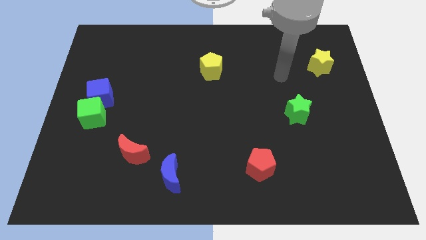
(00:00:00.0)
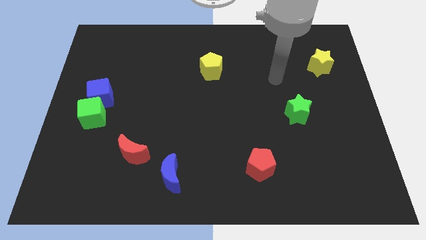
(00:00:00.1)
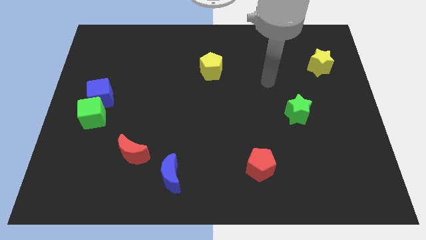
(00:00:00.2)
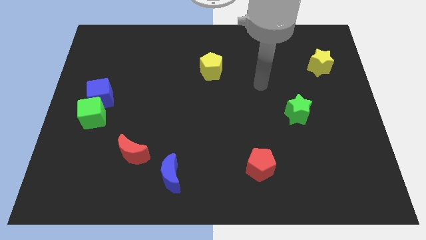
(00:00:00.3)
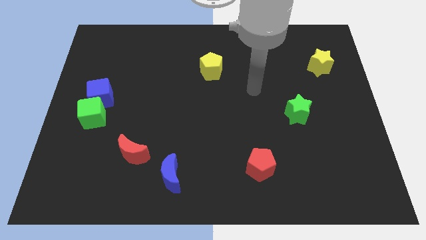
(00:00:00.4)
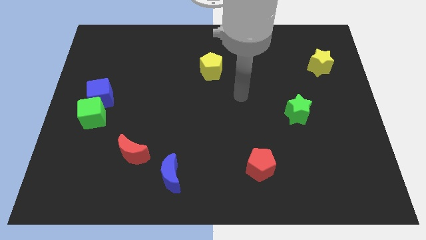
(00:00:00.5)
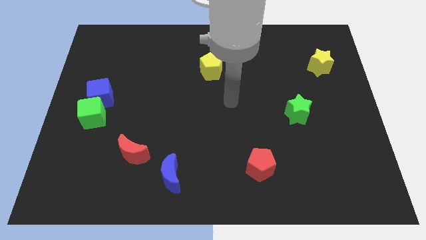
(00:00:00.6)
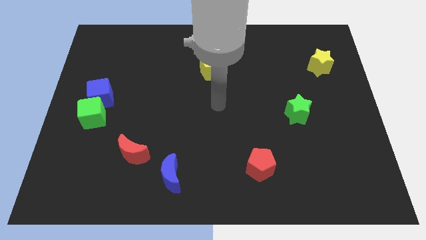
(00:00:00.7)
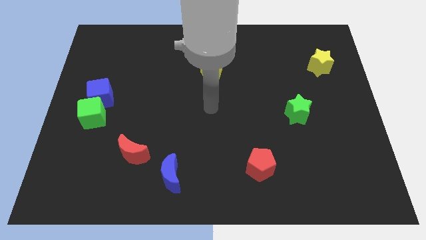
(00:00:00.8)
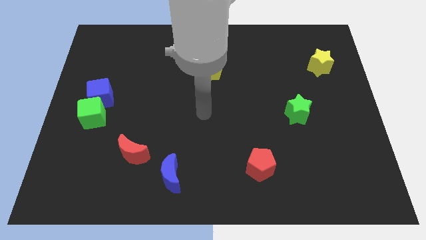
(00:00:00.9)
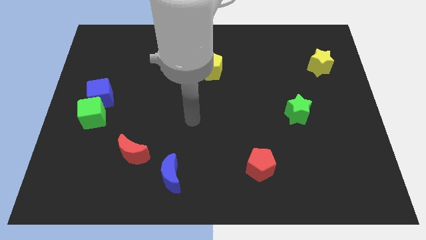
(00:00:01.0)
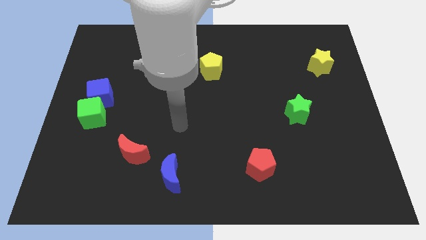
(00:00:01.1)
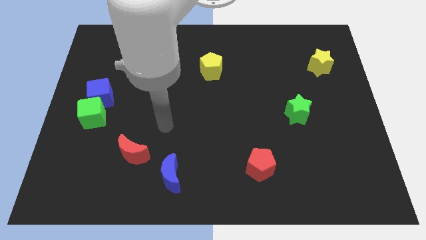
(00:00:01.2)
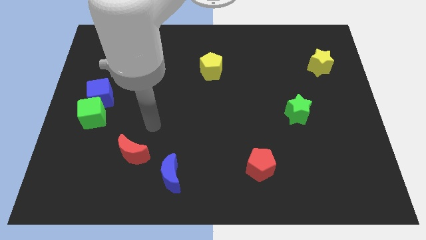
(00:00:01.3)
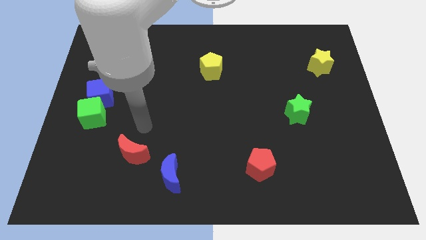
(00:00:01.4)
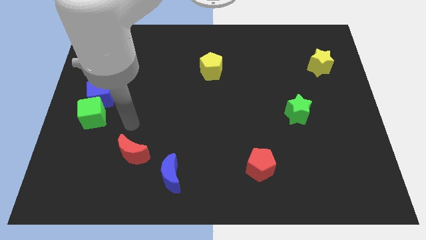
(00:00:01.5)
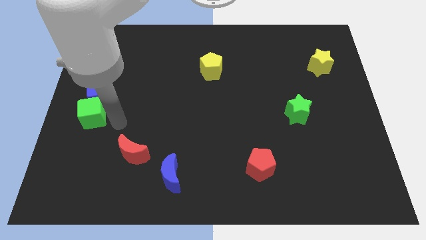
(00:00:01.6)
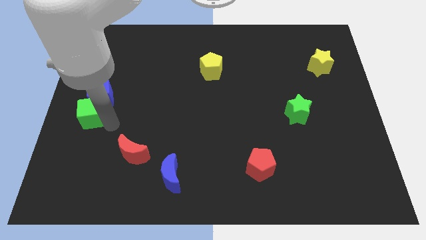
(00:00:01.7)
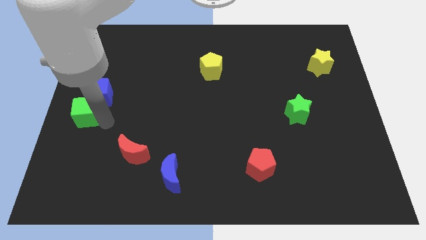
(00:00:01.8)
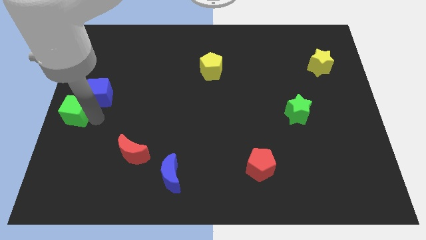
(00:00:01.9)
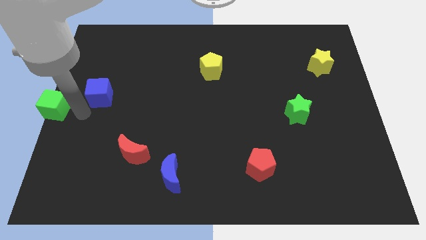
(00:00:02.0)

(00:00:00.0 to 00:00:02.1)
move the blue cube away from the green cube

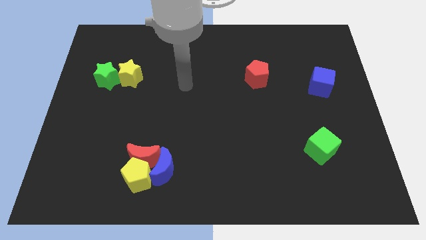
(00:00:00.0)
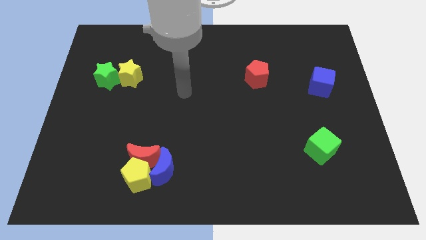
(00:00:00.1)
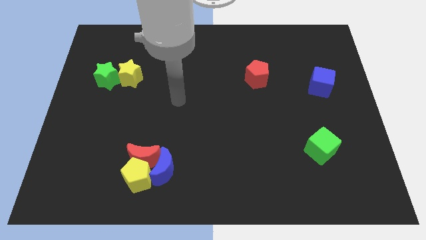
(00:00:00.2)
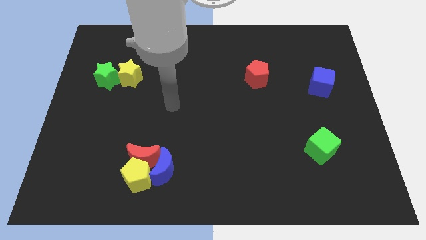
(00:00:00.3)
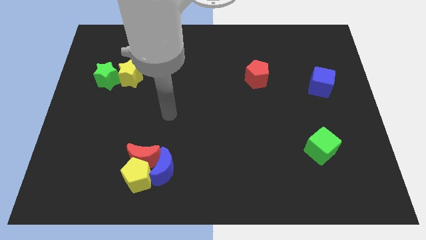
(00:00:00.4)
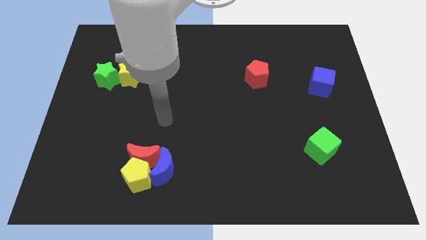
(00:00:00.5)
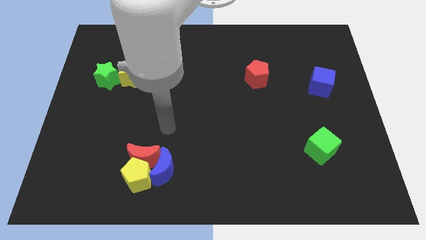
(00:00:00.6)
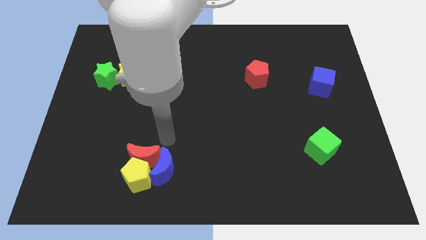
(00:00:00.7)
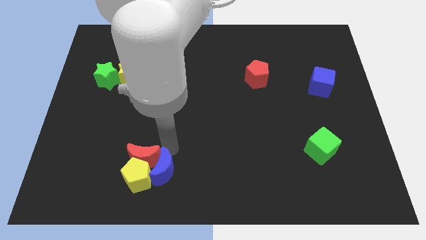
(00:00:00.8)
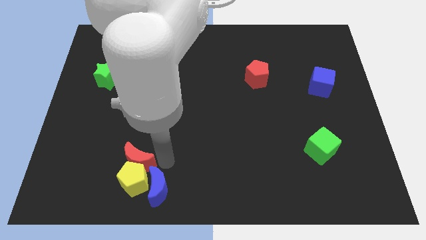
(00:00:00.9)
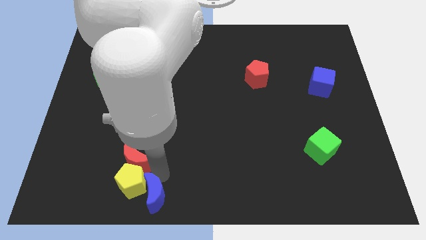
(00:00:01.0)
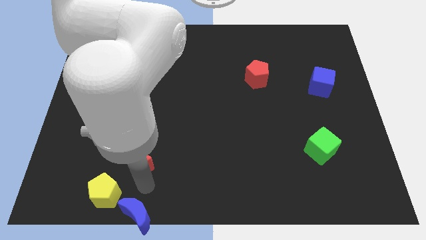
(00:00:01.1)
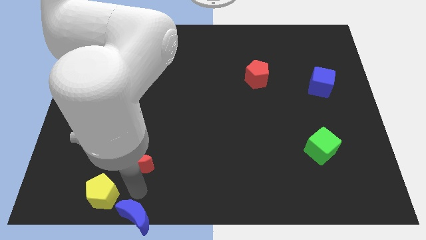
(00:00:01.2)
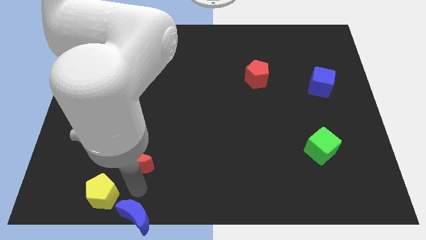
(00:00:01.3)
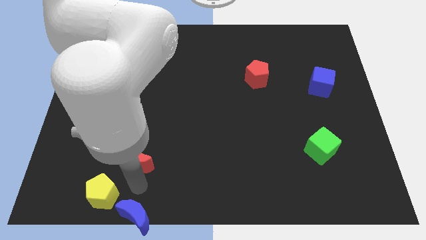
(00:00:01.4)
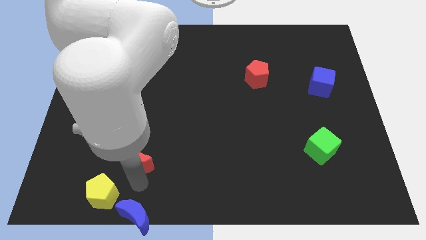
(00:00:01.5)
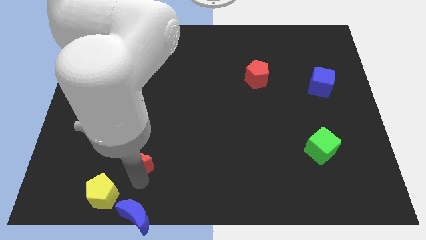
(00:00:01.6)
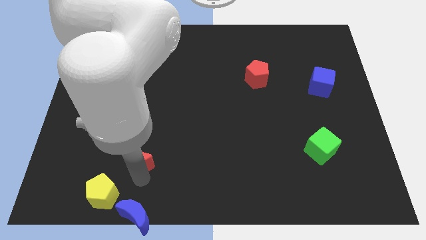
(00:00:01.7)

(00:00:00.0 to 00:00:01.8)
separate the red moon from the yellow pentagon and blue moon

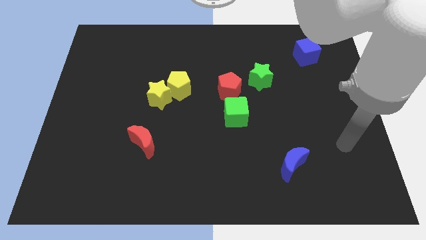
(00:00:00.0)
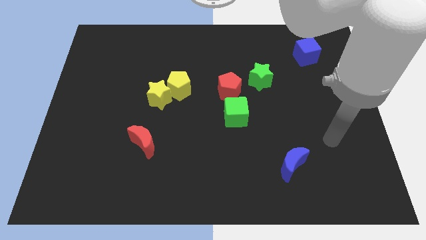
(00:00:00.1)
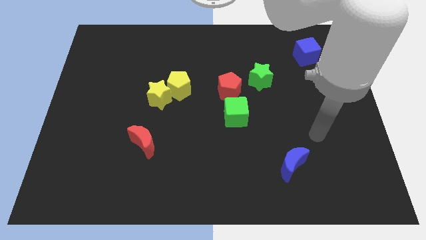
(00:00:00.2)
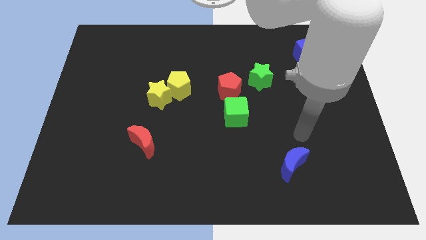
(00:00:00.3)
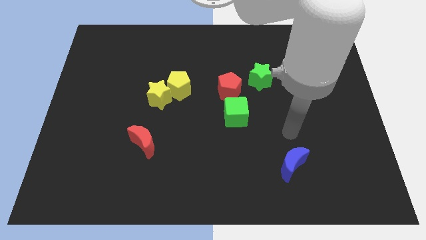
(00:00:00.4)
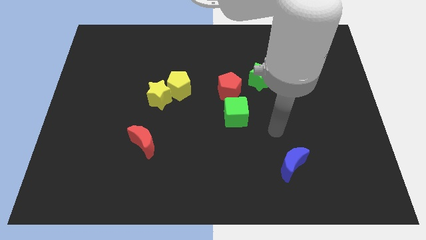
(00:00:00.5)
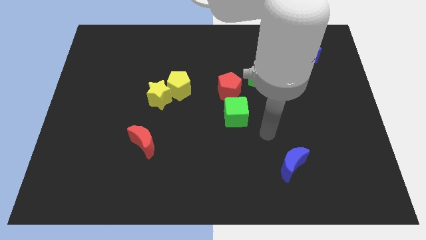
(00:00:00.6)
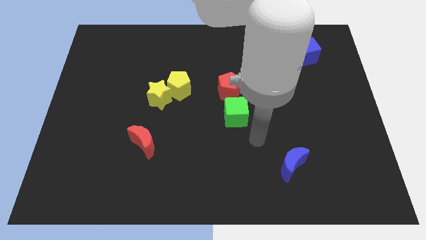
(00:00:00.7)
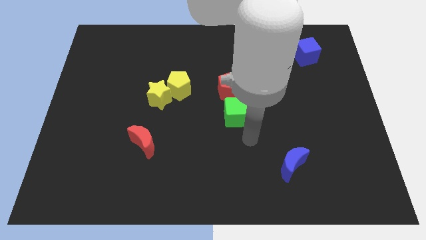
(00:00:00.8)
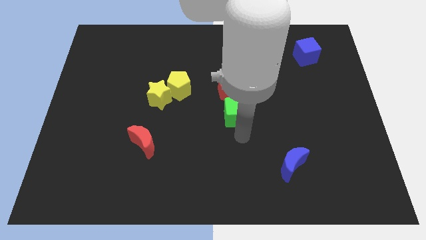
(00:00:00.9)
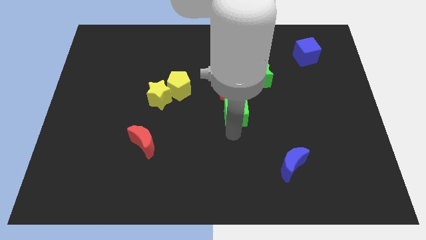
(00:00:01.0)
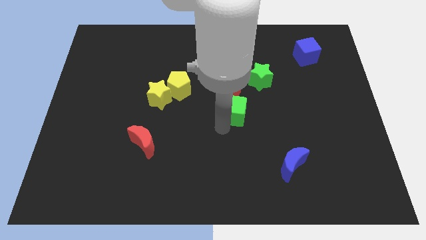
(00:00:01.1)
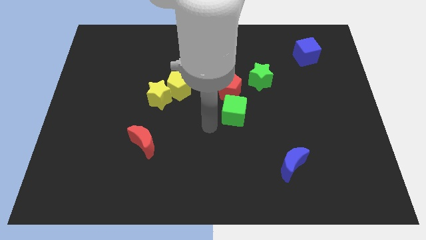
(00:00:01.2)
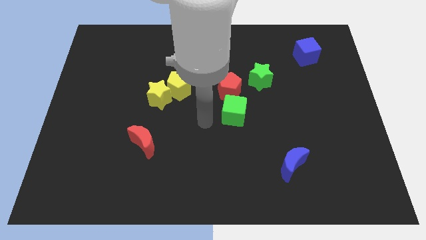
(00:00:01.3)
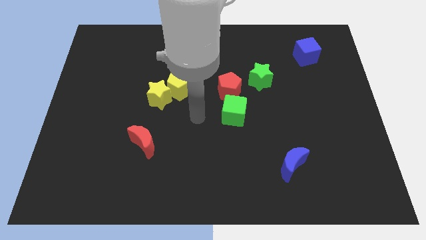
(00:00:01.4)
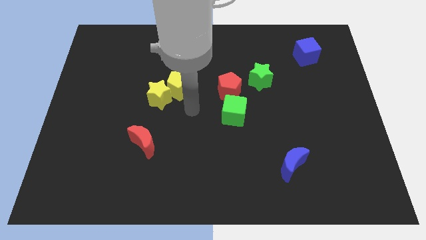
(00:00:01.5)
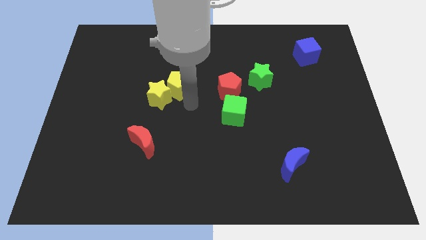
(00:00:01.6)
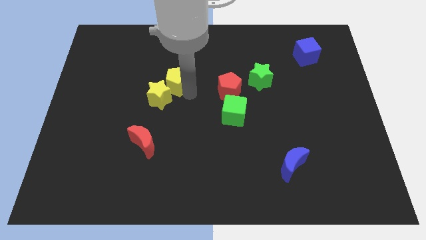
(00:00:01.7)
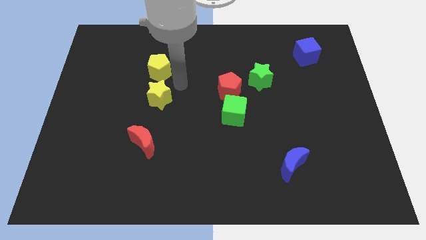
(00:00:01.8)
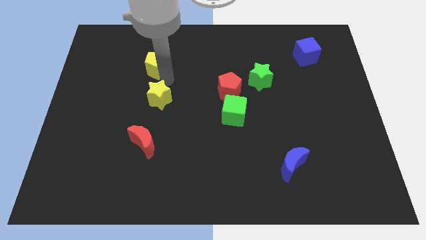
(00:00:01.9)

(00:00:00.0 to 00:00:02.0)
move the yellow star away from the yellow pentagon

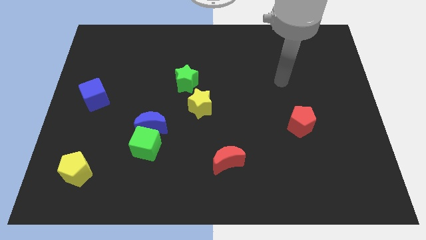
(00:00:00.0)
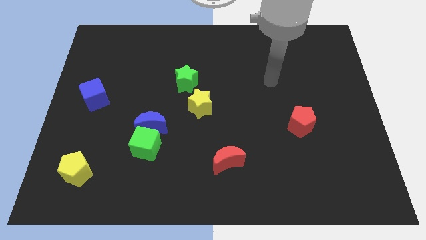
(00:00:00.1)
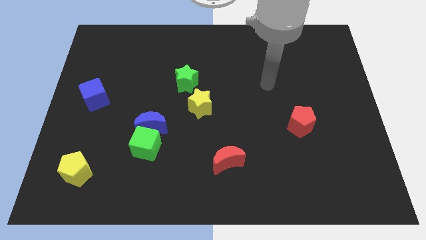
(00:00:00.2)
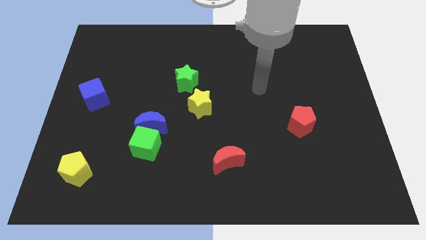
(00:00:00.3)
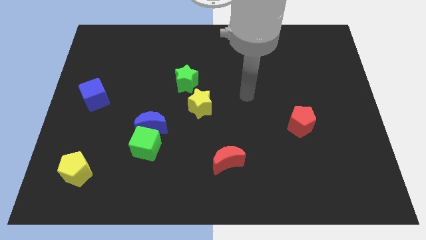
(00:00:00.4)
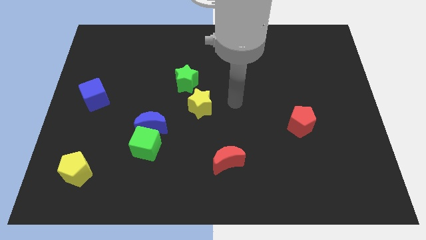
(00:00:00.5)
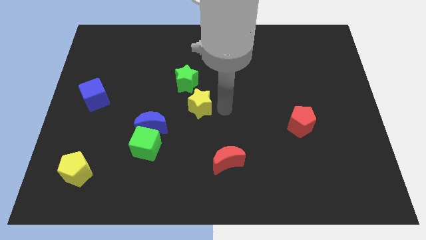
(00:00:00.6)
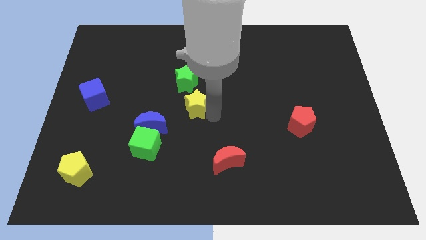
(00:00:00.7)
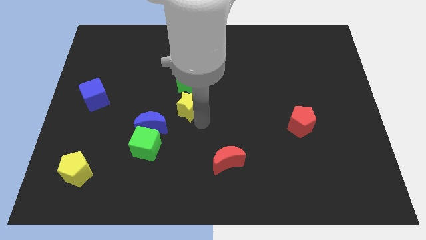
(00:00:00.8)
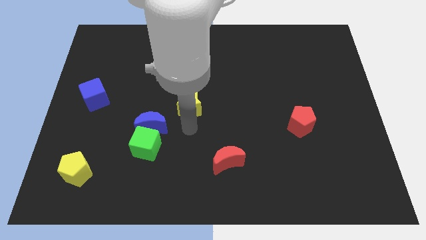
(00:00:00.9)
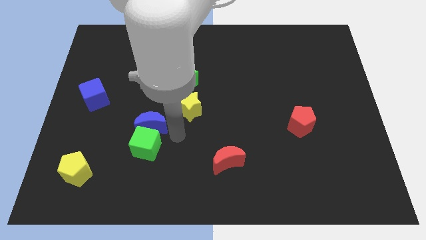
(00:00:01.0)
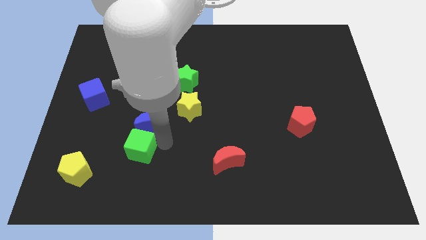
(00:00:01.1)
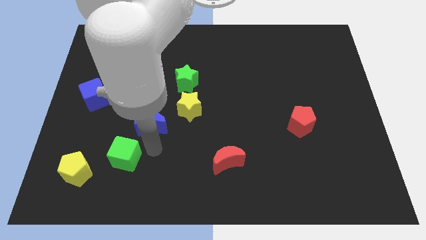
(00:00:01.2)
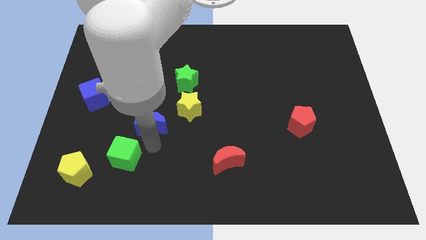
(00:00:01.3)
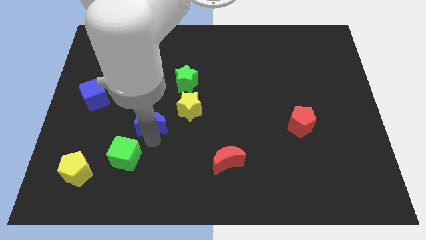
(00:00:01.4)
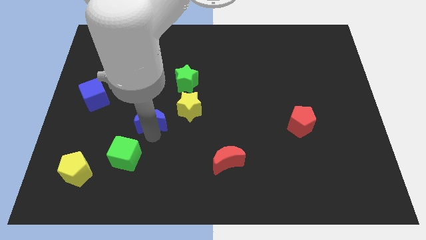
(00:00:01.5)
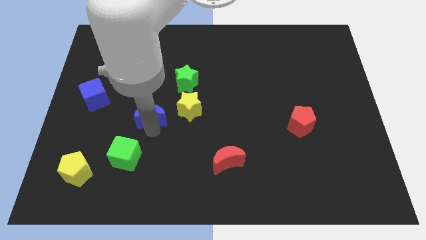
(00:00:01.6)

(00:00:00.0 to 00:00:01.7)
separate the blue moon from the green cube

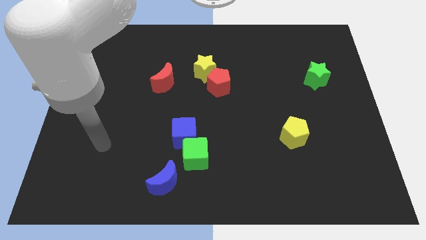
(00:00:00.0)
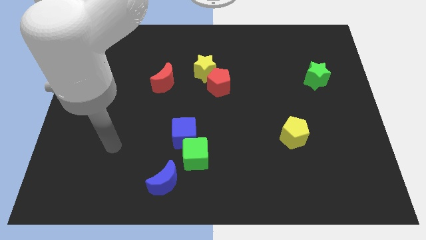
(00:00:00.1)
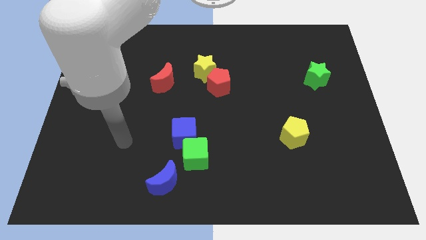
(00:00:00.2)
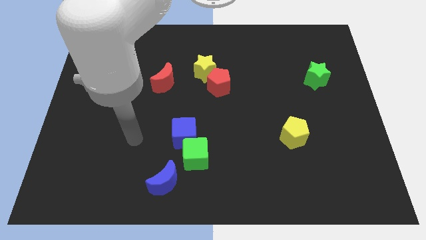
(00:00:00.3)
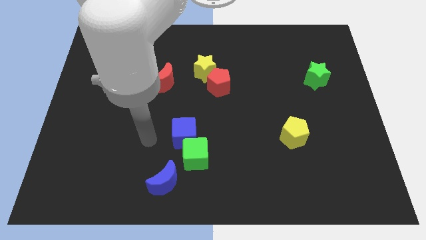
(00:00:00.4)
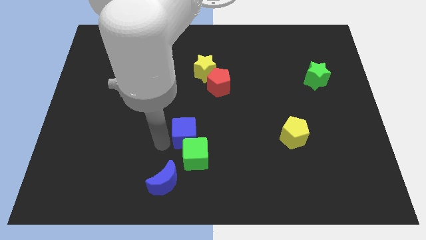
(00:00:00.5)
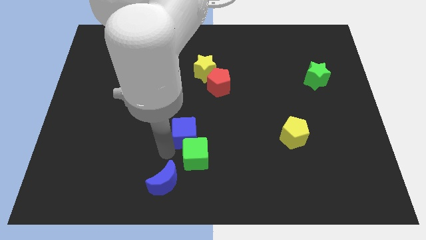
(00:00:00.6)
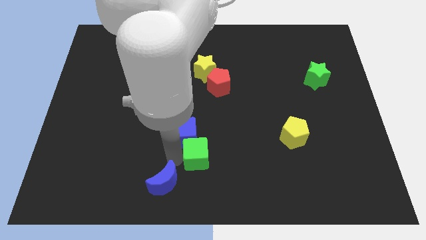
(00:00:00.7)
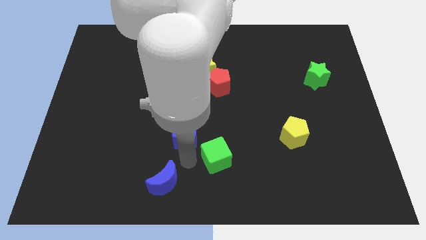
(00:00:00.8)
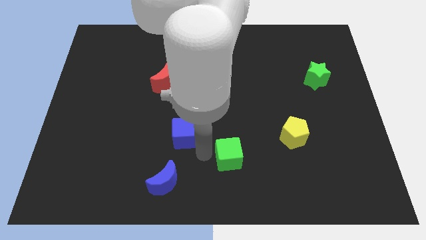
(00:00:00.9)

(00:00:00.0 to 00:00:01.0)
pull the blue cube apart from the green cube

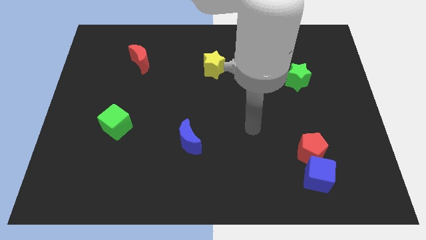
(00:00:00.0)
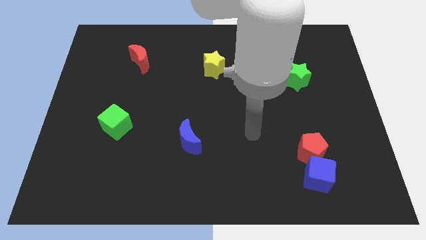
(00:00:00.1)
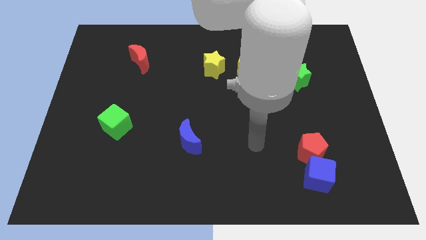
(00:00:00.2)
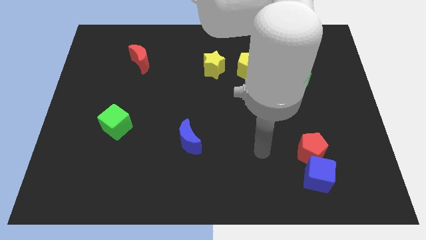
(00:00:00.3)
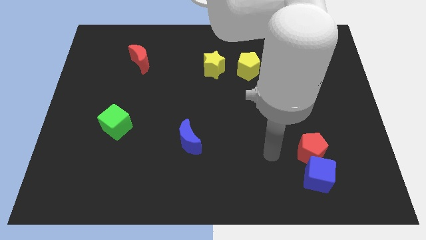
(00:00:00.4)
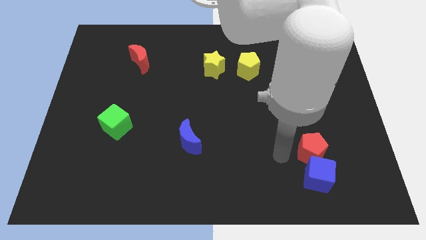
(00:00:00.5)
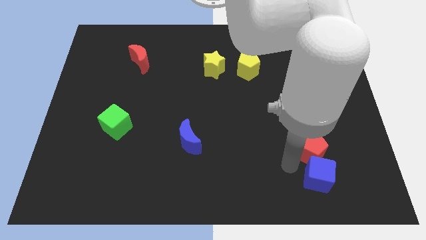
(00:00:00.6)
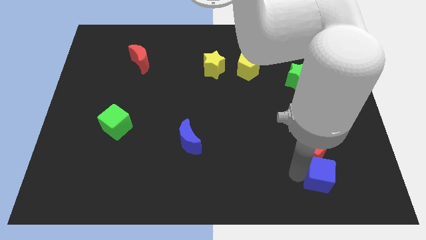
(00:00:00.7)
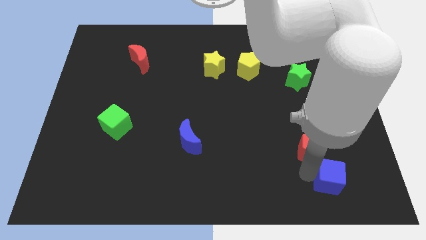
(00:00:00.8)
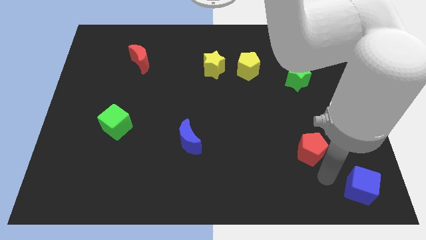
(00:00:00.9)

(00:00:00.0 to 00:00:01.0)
pull the red pentagon apart from the blue cube
